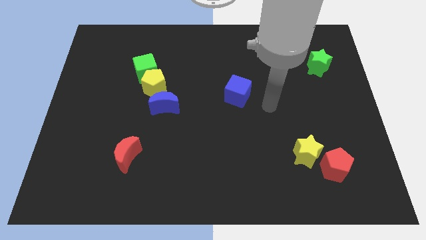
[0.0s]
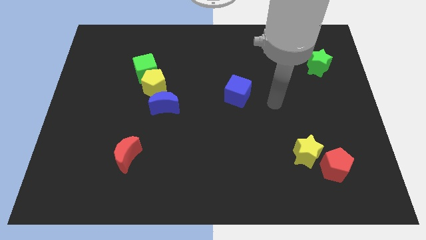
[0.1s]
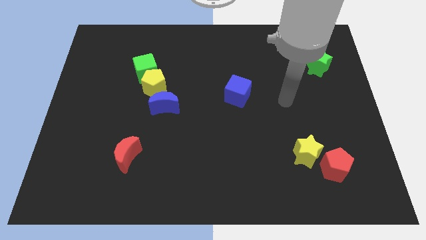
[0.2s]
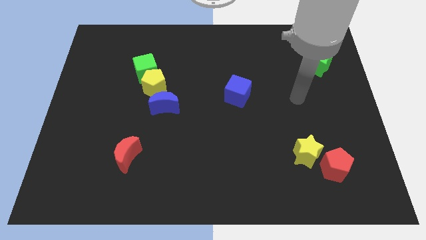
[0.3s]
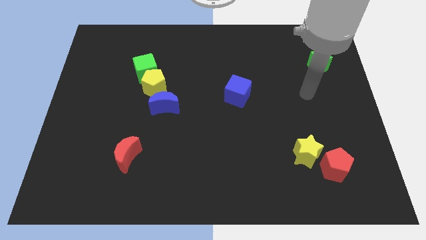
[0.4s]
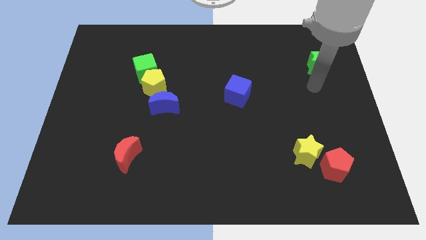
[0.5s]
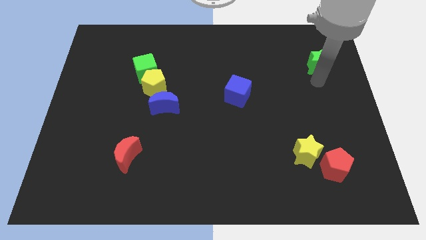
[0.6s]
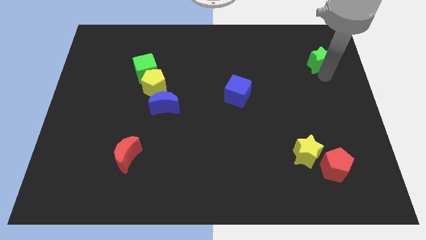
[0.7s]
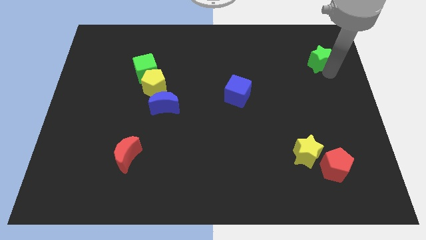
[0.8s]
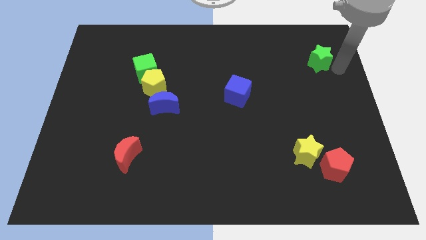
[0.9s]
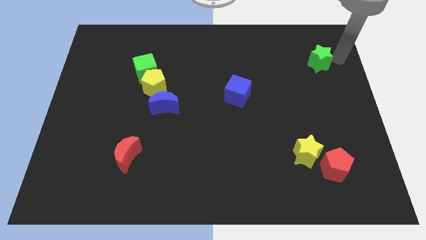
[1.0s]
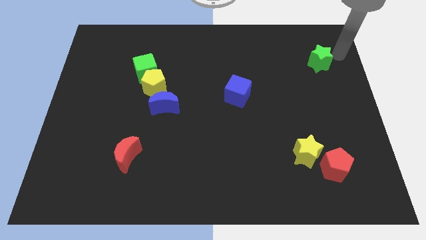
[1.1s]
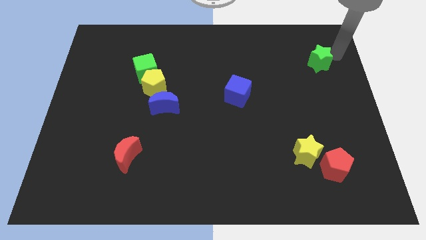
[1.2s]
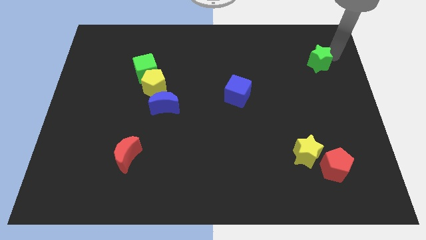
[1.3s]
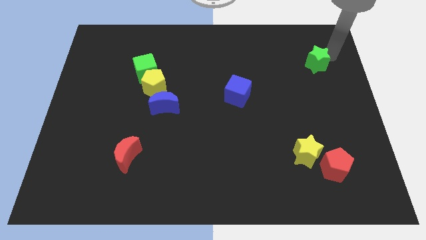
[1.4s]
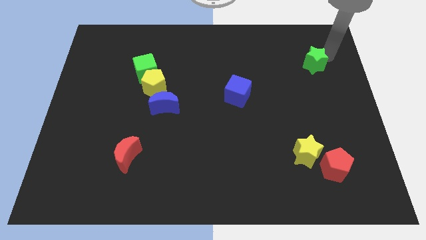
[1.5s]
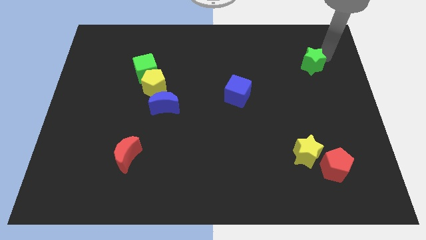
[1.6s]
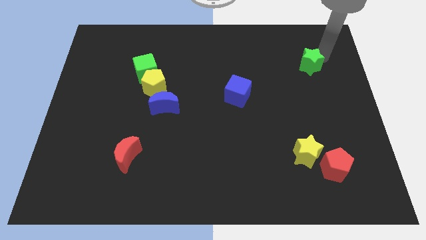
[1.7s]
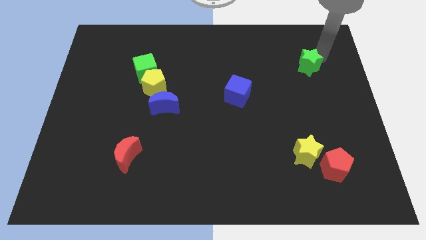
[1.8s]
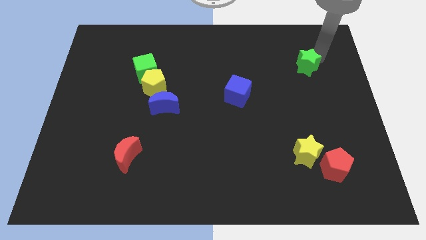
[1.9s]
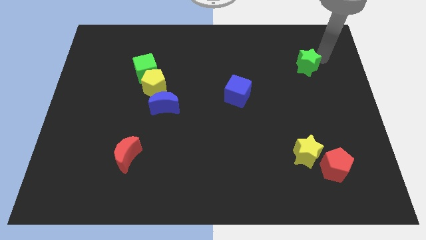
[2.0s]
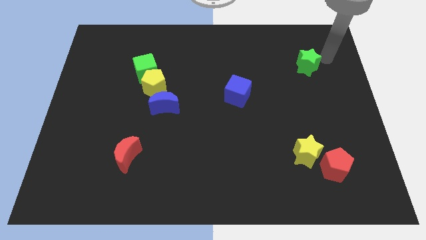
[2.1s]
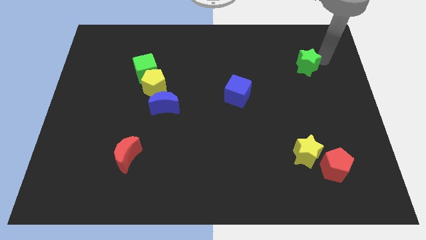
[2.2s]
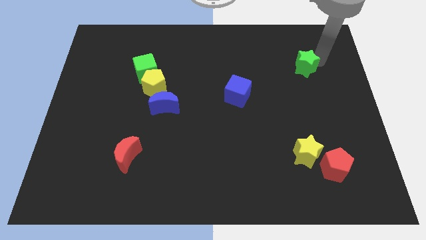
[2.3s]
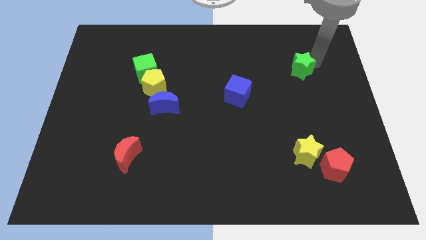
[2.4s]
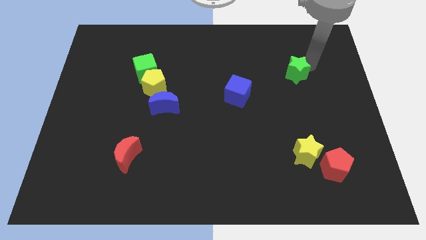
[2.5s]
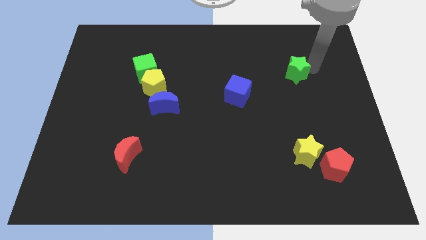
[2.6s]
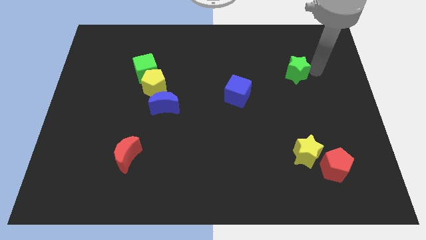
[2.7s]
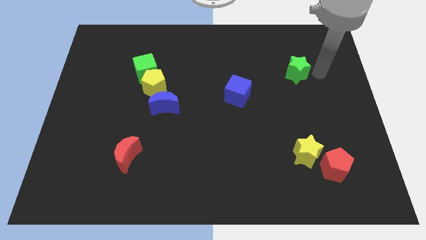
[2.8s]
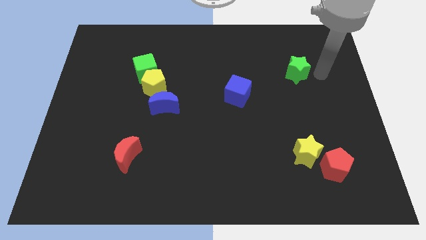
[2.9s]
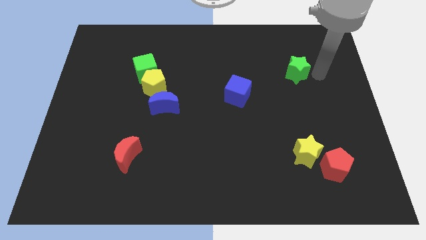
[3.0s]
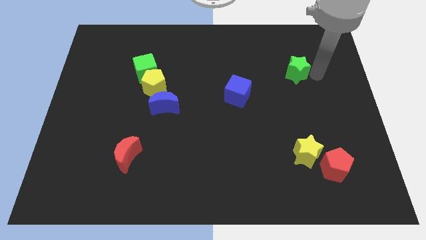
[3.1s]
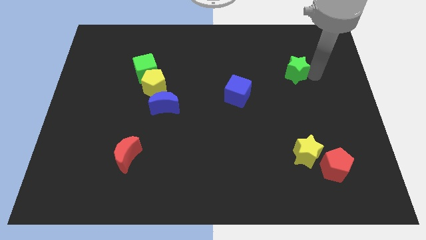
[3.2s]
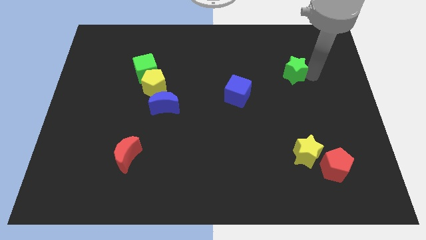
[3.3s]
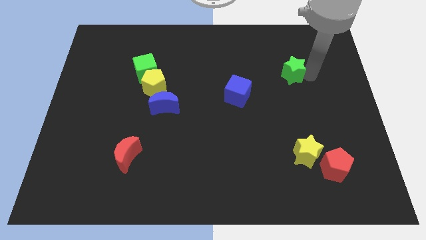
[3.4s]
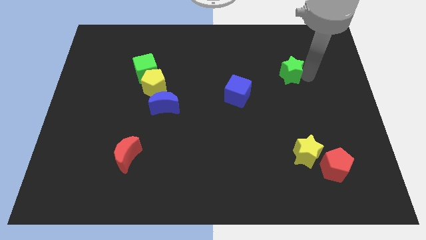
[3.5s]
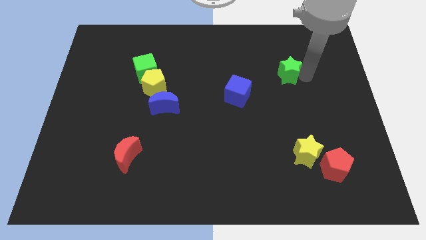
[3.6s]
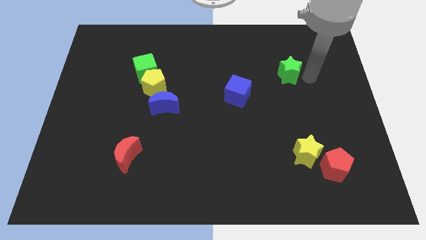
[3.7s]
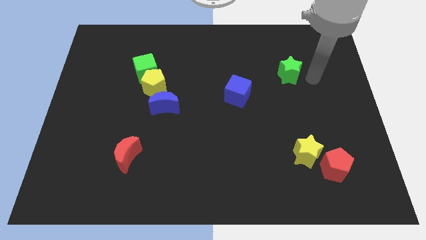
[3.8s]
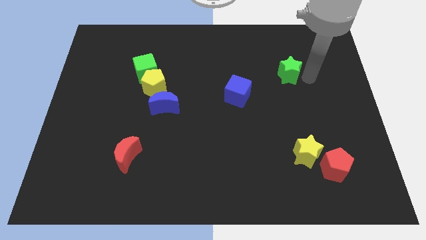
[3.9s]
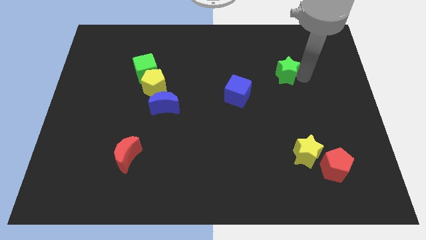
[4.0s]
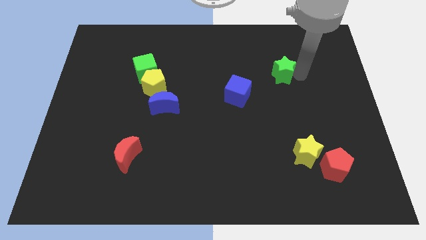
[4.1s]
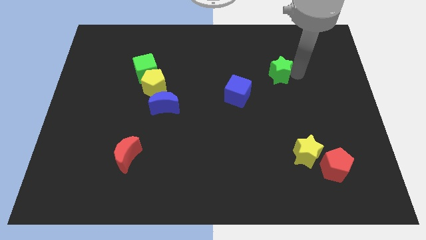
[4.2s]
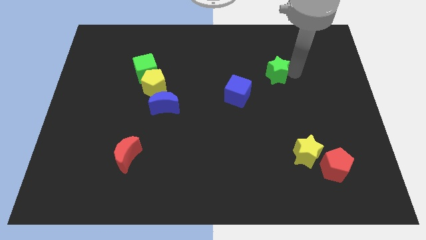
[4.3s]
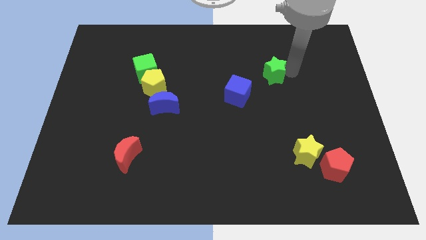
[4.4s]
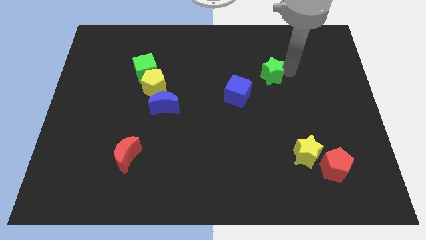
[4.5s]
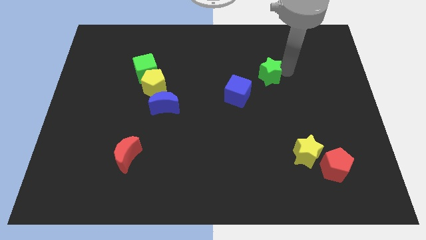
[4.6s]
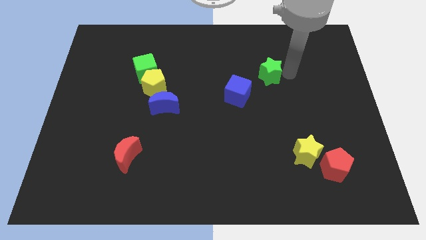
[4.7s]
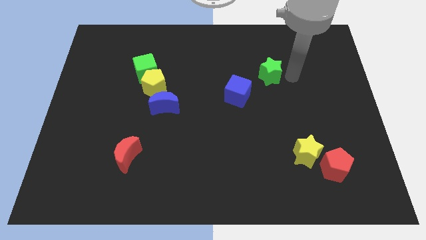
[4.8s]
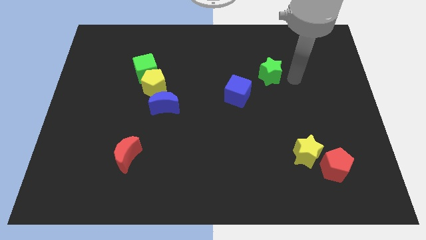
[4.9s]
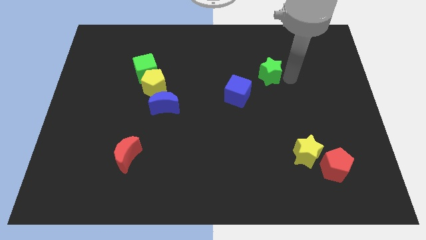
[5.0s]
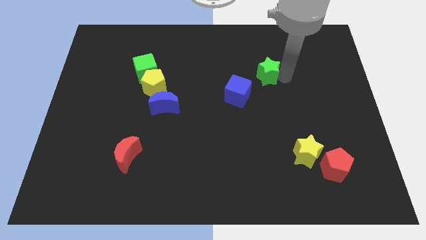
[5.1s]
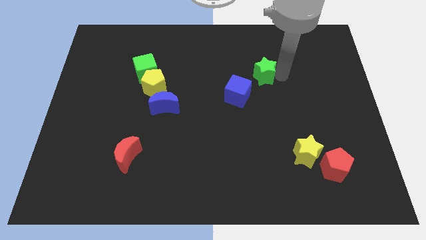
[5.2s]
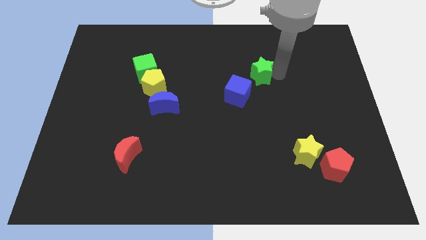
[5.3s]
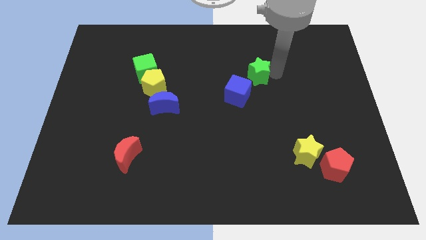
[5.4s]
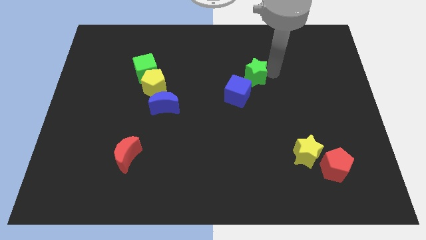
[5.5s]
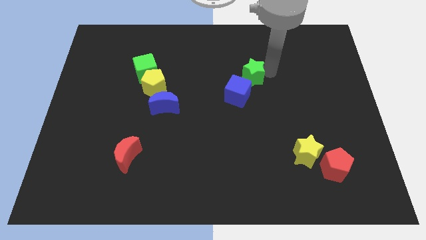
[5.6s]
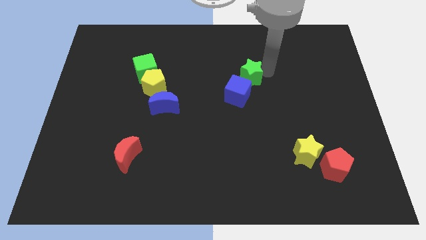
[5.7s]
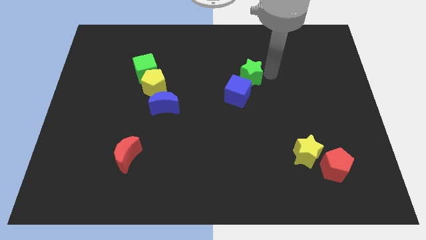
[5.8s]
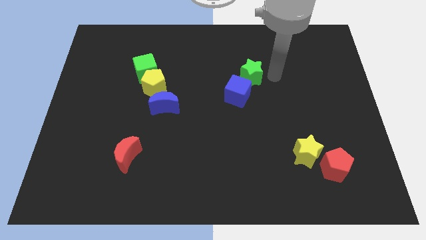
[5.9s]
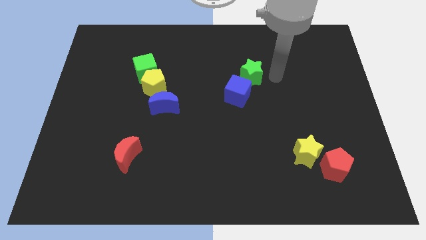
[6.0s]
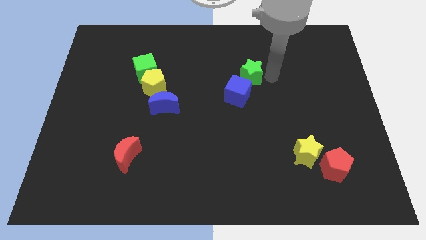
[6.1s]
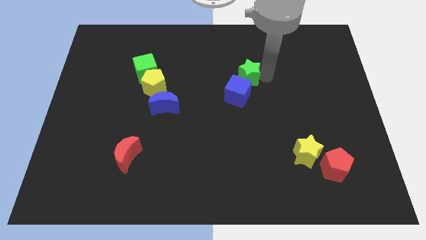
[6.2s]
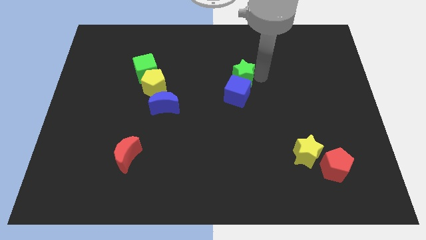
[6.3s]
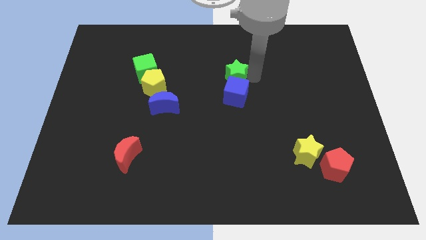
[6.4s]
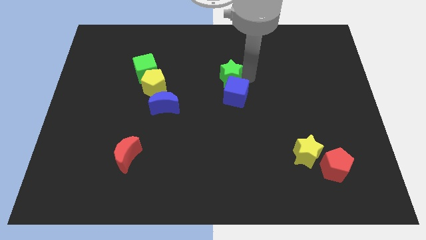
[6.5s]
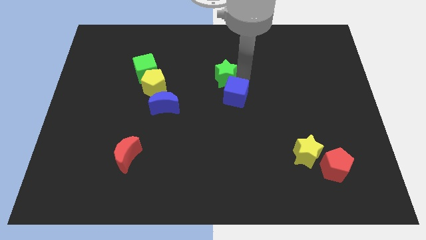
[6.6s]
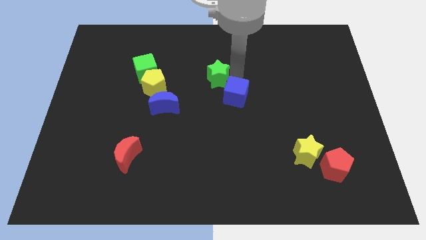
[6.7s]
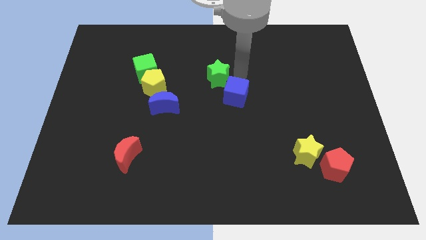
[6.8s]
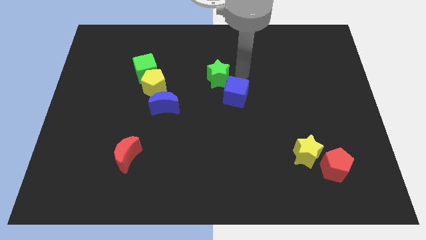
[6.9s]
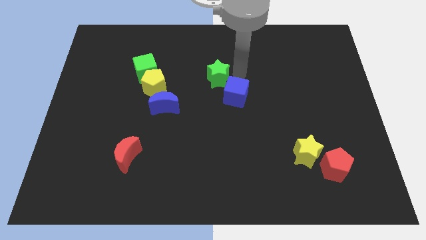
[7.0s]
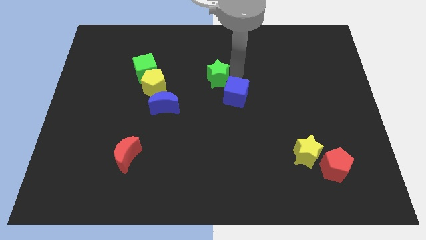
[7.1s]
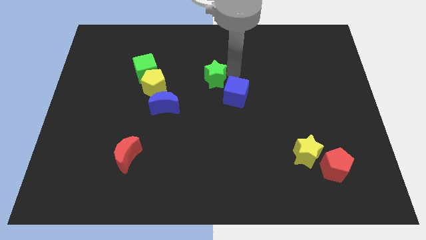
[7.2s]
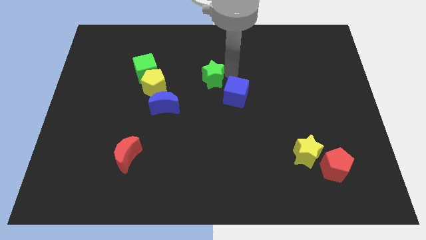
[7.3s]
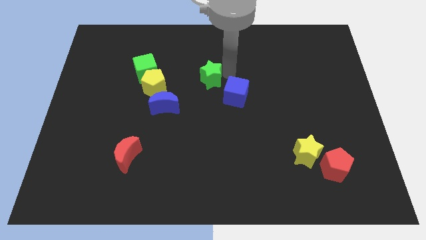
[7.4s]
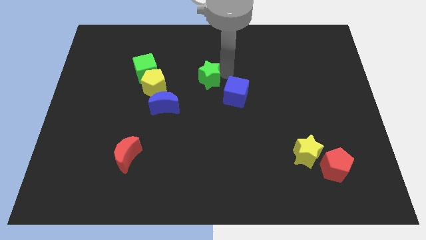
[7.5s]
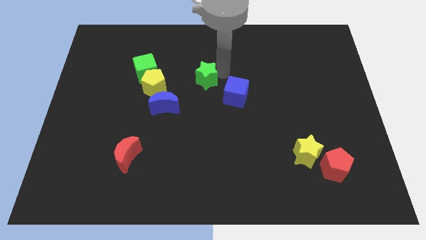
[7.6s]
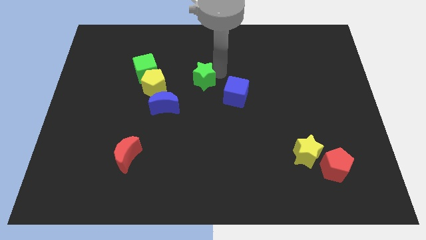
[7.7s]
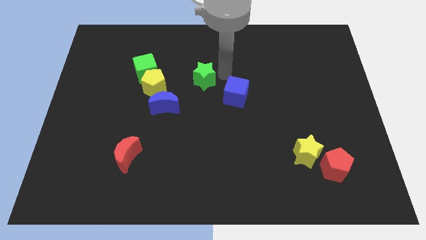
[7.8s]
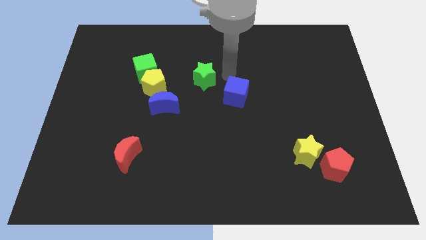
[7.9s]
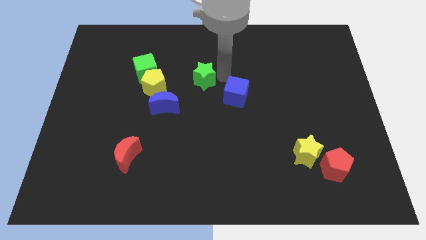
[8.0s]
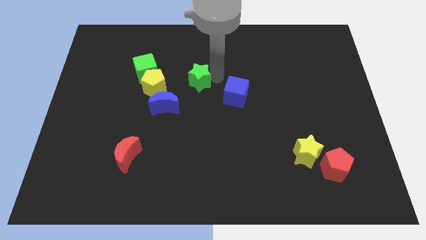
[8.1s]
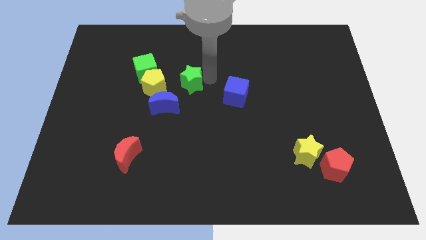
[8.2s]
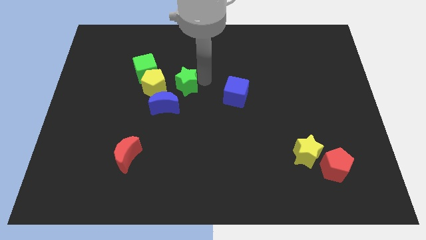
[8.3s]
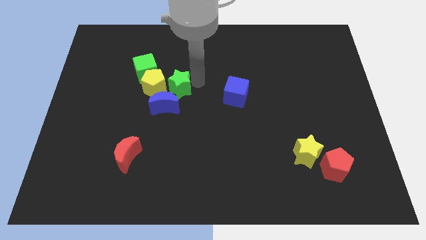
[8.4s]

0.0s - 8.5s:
move the green star next to the yellow pentagon
